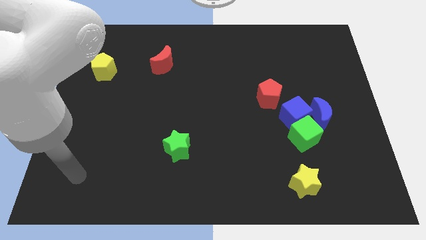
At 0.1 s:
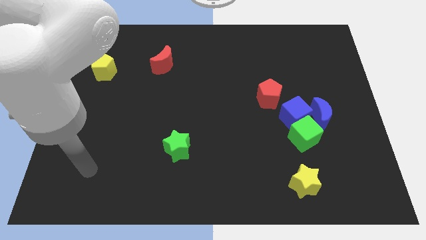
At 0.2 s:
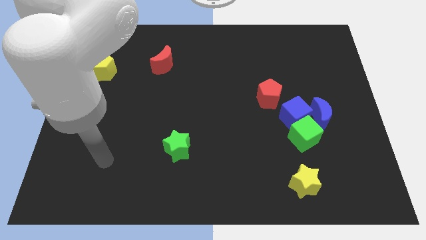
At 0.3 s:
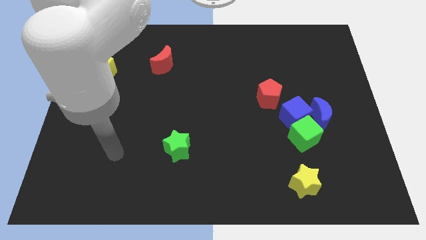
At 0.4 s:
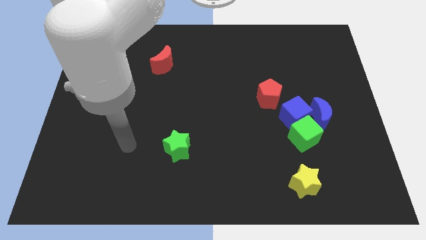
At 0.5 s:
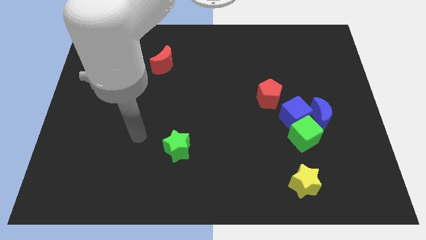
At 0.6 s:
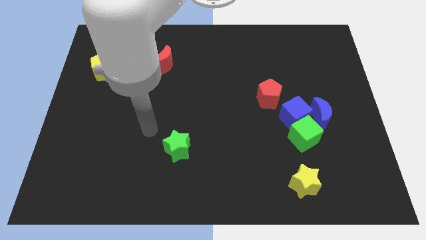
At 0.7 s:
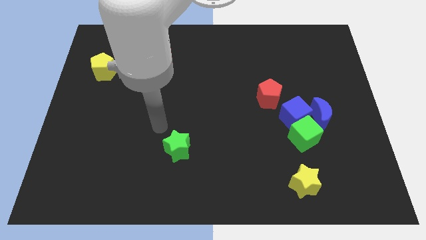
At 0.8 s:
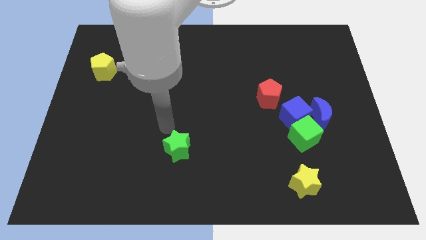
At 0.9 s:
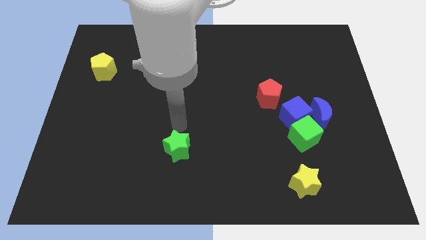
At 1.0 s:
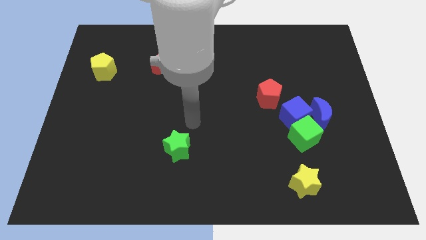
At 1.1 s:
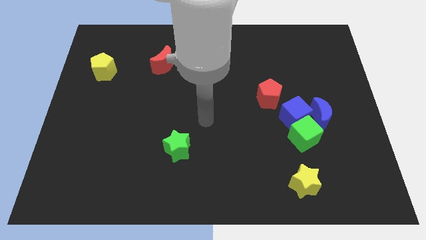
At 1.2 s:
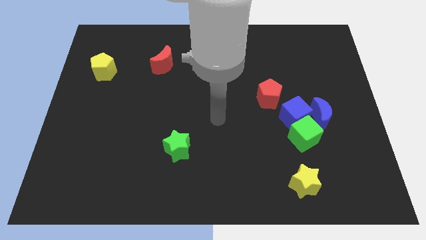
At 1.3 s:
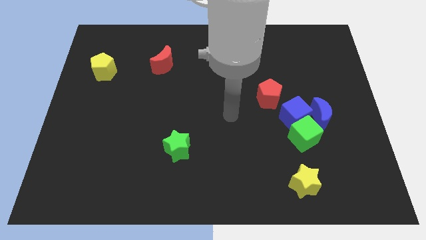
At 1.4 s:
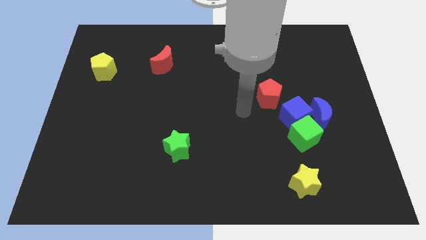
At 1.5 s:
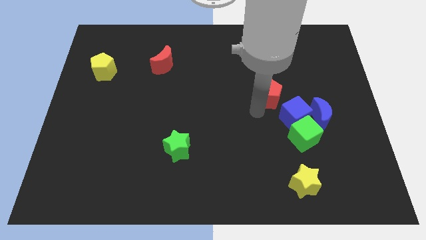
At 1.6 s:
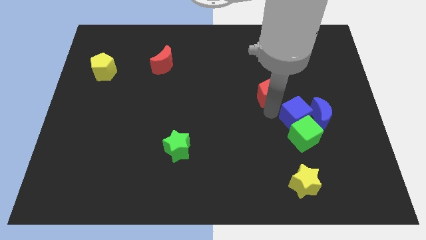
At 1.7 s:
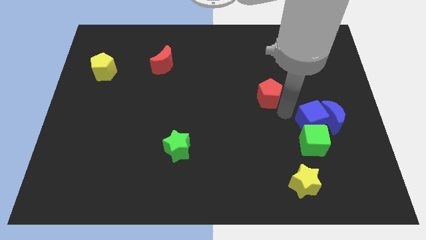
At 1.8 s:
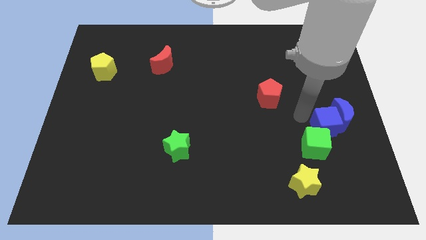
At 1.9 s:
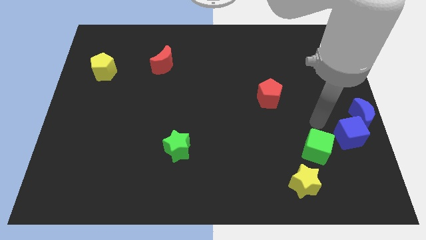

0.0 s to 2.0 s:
move the green cube away from the blue cube and blue moon

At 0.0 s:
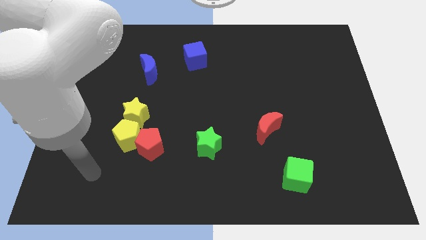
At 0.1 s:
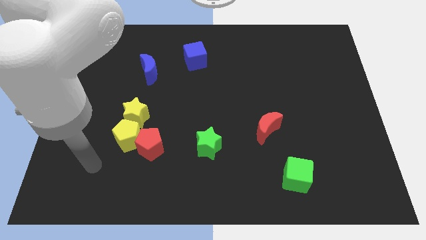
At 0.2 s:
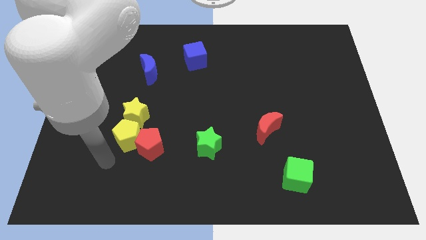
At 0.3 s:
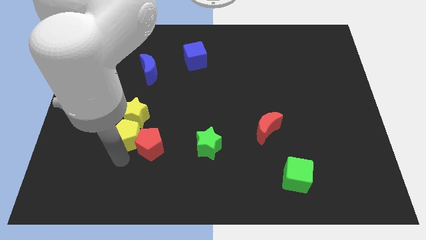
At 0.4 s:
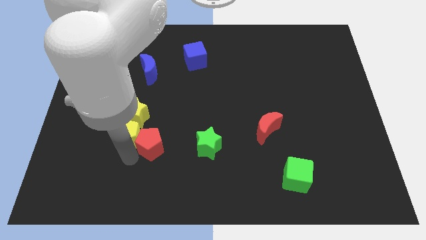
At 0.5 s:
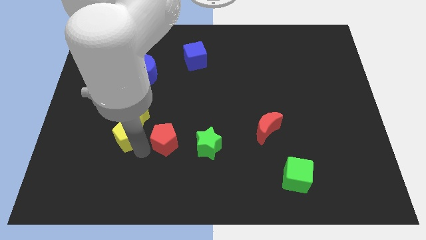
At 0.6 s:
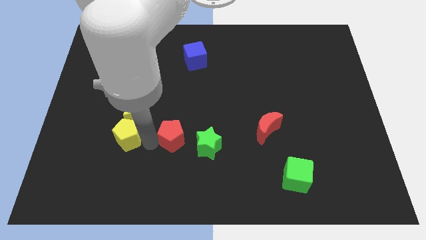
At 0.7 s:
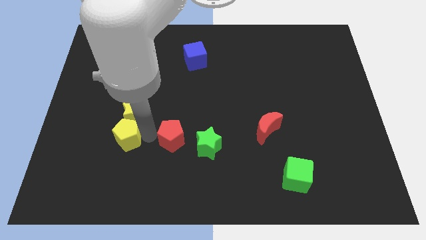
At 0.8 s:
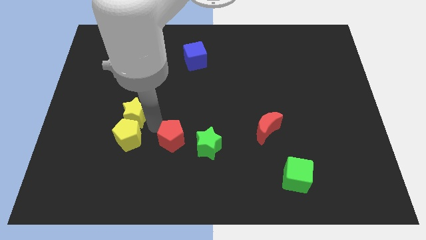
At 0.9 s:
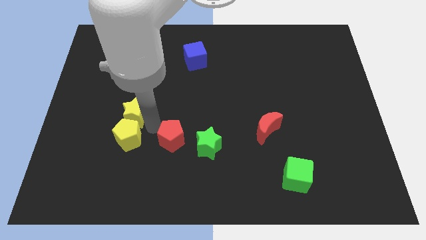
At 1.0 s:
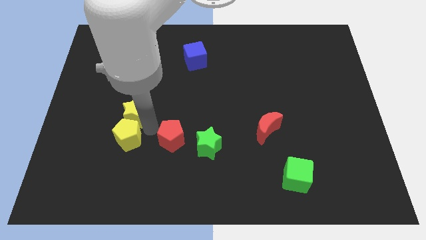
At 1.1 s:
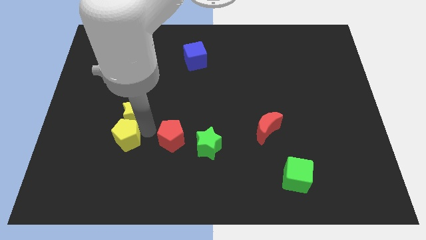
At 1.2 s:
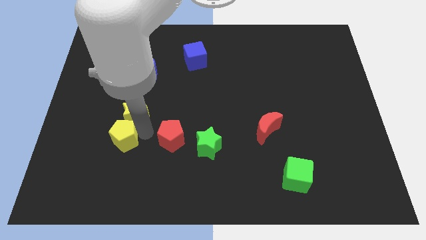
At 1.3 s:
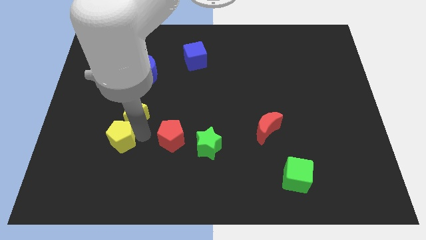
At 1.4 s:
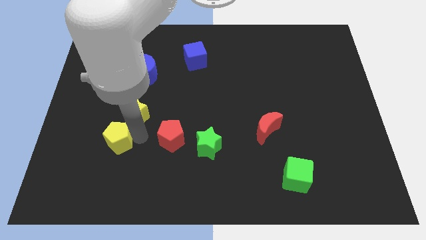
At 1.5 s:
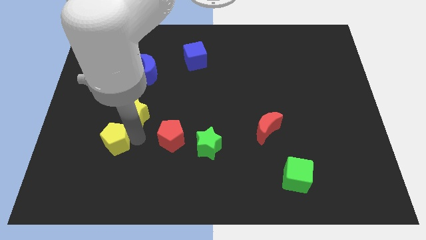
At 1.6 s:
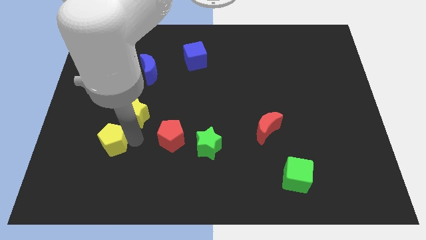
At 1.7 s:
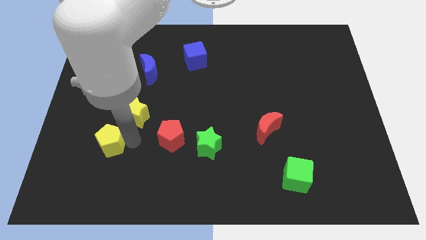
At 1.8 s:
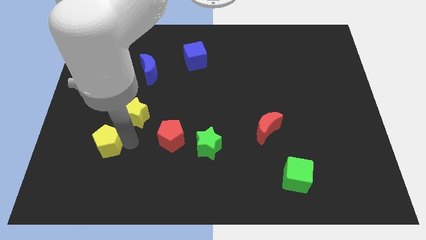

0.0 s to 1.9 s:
pull the yellow pentagon apart from the red pentagon and yellow star

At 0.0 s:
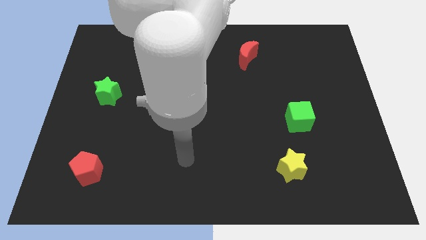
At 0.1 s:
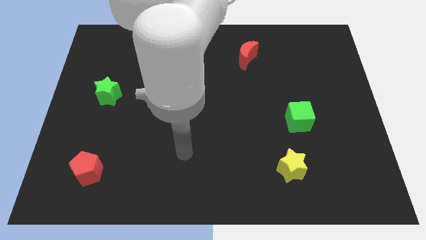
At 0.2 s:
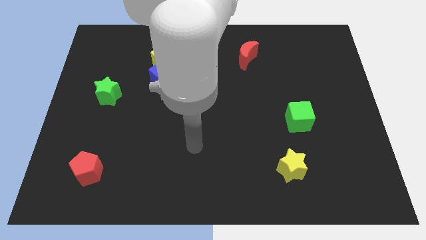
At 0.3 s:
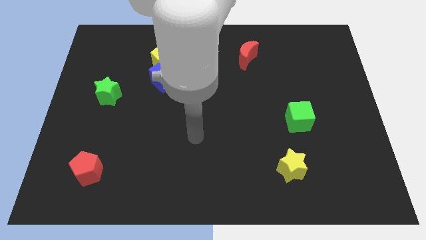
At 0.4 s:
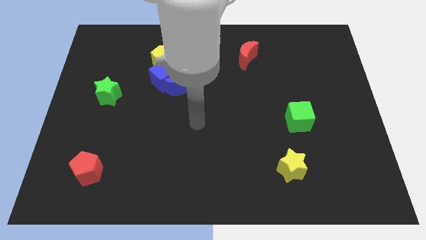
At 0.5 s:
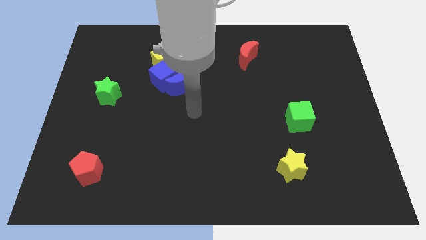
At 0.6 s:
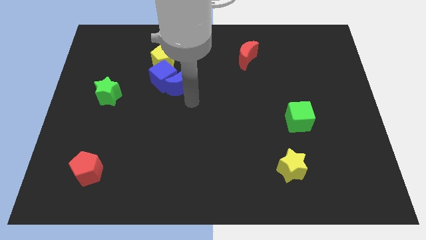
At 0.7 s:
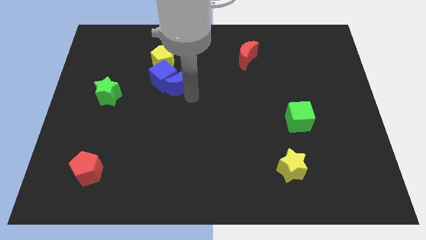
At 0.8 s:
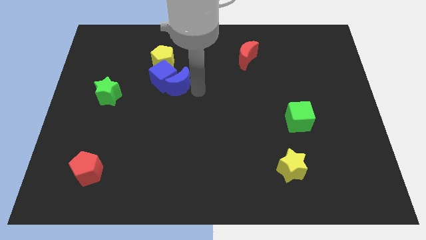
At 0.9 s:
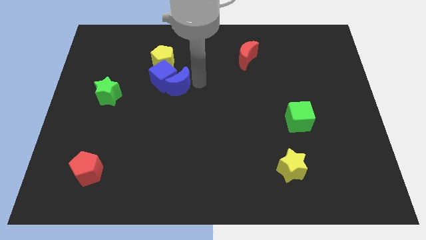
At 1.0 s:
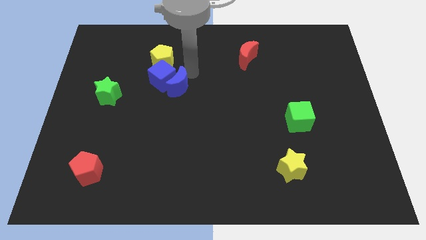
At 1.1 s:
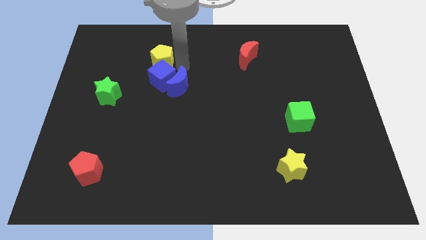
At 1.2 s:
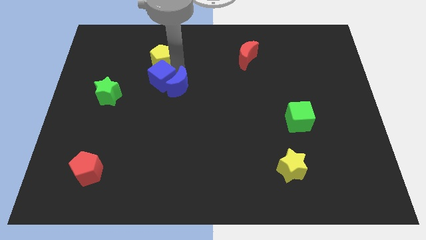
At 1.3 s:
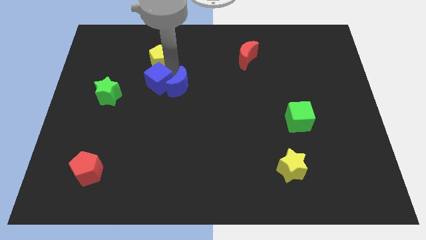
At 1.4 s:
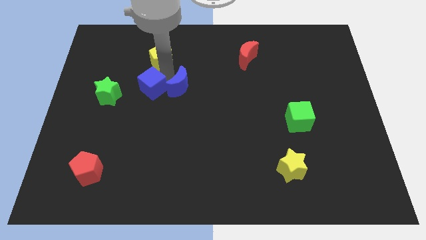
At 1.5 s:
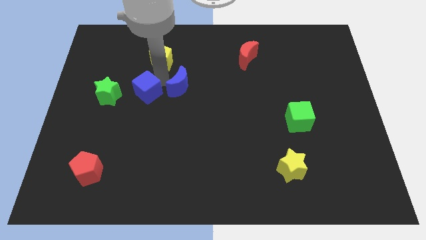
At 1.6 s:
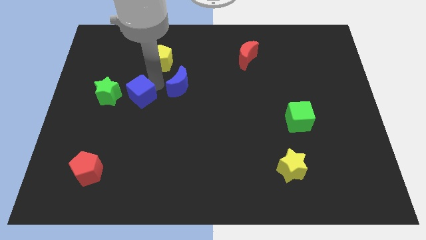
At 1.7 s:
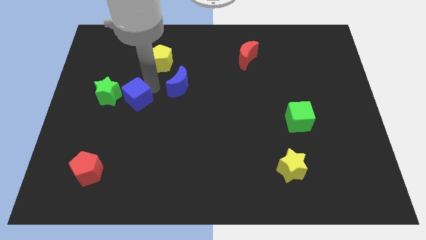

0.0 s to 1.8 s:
separate the blue cube from the blue moon and yellow pentagon

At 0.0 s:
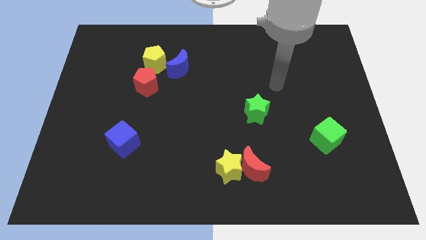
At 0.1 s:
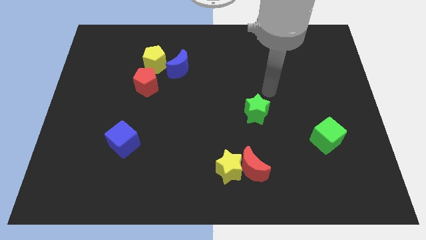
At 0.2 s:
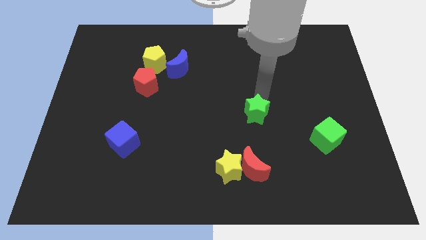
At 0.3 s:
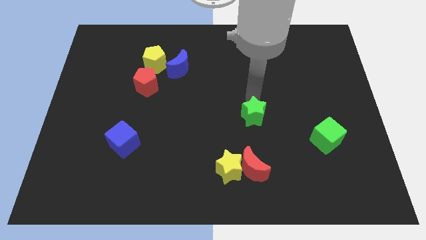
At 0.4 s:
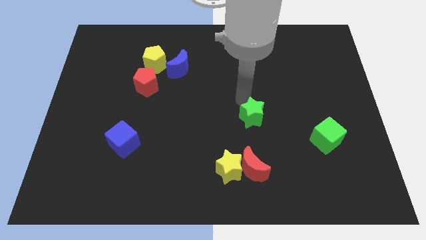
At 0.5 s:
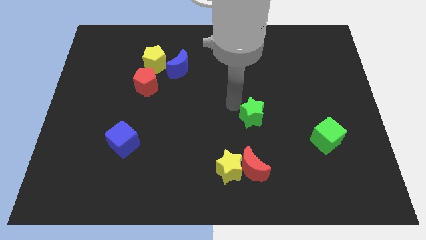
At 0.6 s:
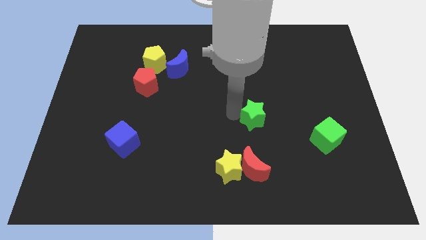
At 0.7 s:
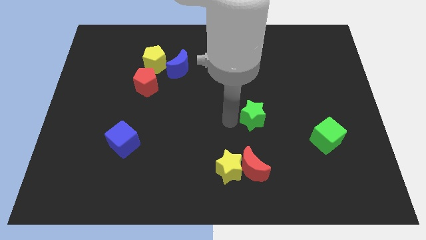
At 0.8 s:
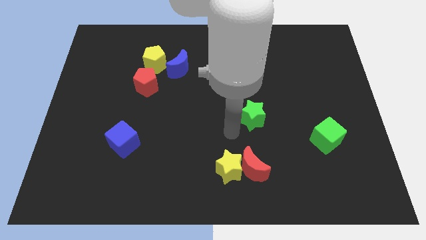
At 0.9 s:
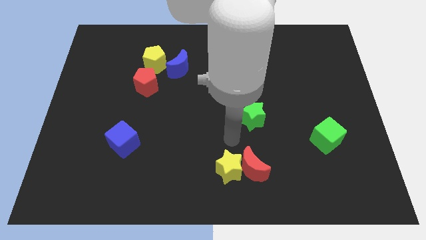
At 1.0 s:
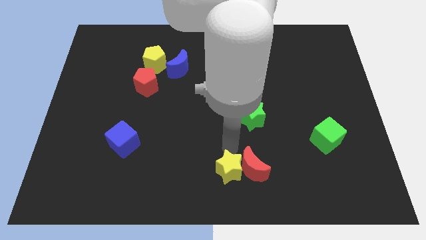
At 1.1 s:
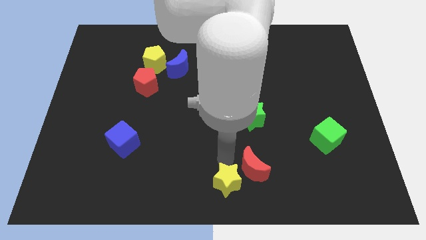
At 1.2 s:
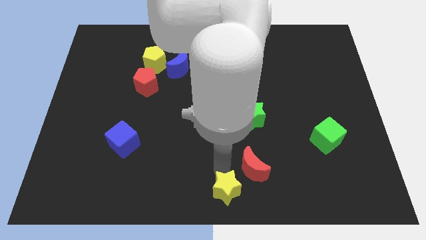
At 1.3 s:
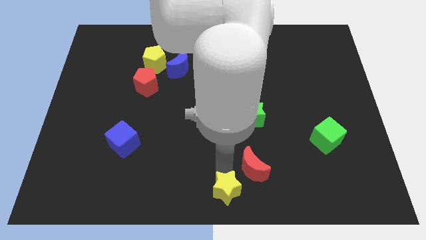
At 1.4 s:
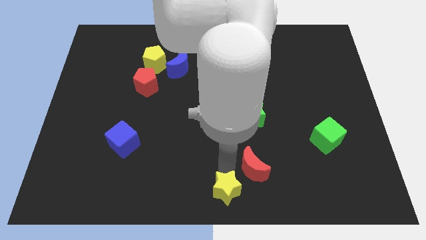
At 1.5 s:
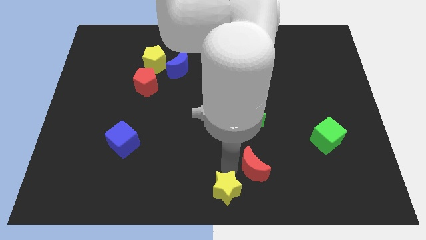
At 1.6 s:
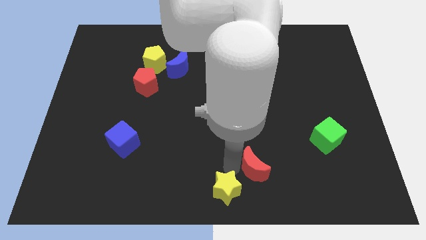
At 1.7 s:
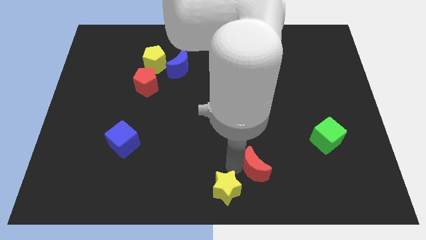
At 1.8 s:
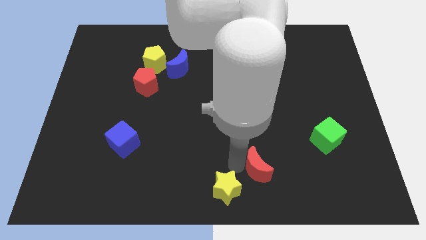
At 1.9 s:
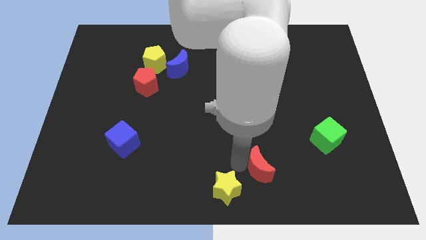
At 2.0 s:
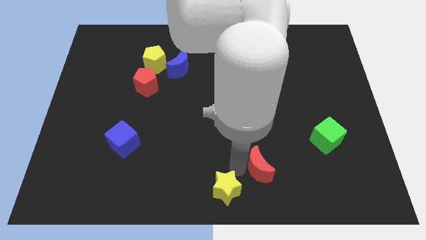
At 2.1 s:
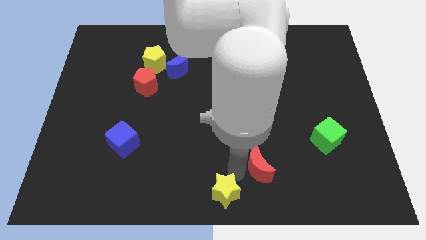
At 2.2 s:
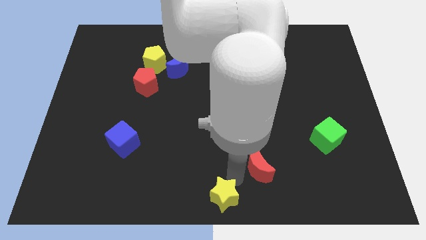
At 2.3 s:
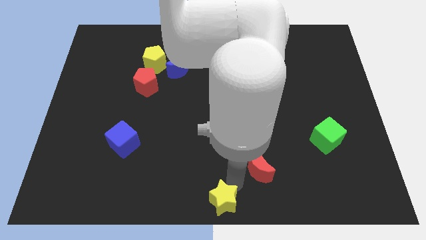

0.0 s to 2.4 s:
pull the red moon apart from the yellow star

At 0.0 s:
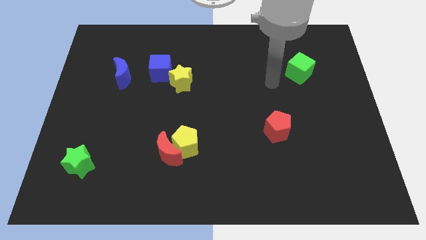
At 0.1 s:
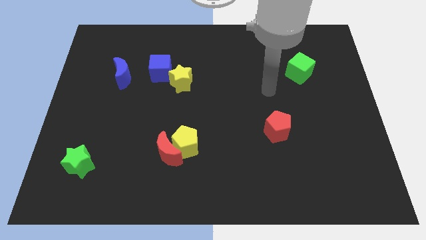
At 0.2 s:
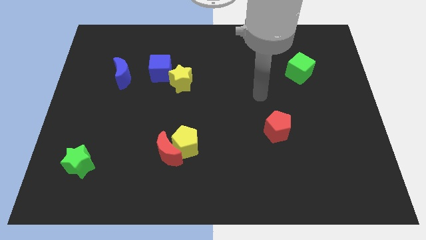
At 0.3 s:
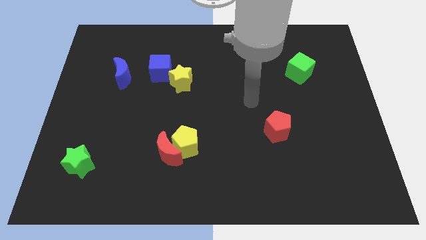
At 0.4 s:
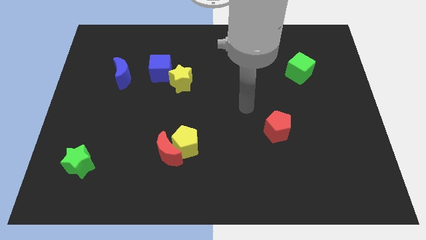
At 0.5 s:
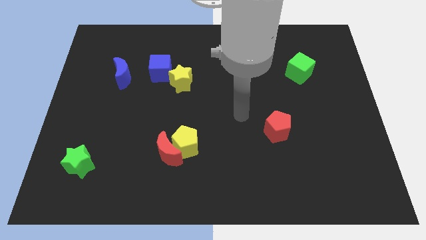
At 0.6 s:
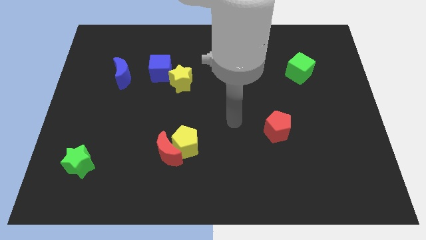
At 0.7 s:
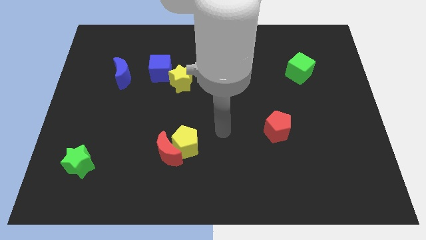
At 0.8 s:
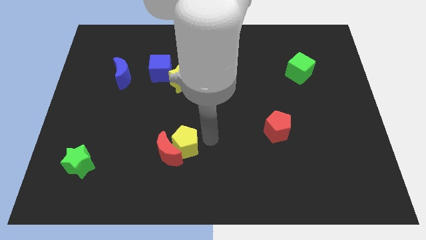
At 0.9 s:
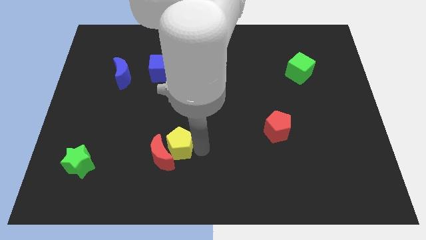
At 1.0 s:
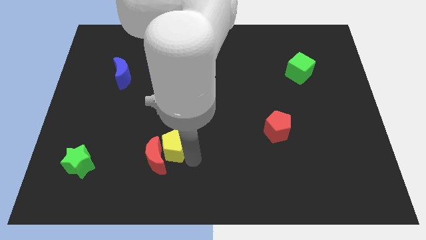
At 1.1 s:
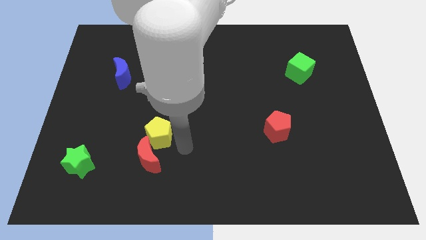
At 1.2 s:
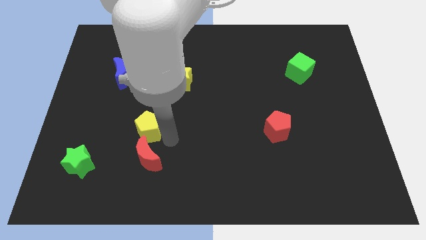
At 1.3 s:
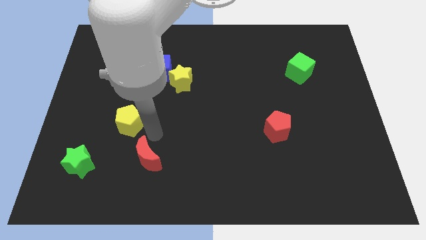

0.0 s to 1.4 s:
pull the red moon apart from the yellow pentagon
